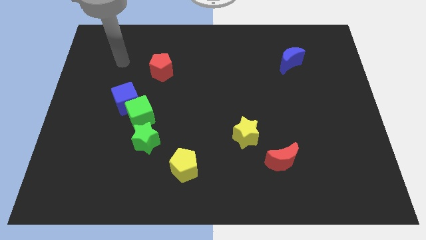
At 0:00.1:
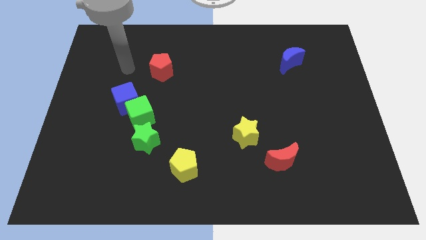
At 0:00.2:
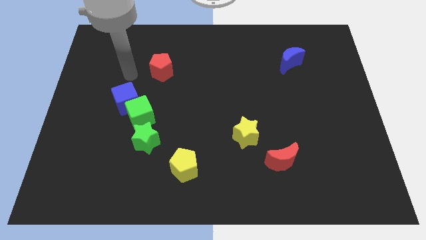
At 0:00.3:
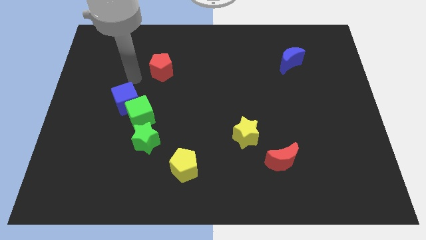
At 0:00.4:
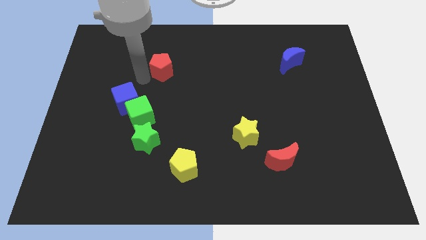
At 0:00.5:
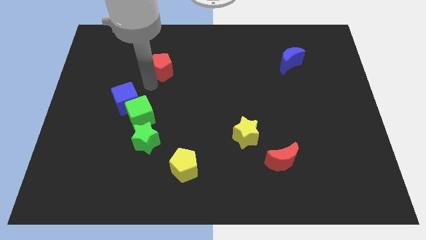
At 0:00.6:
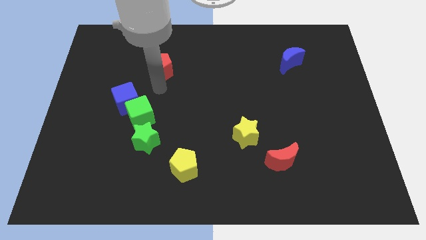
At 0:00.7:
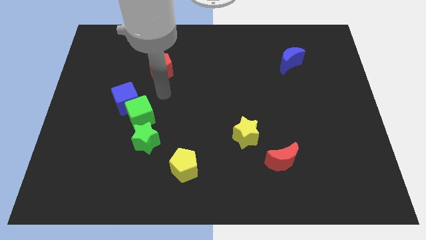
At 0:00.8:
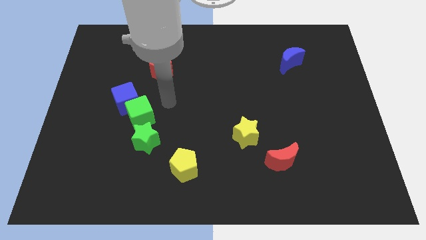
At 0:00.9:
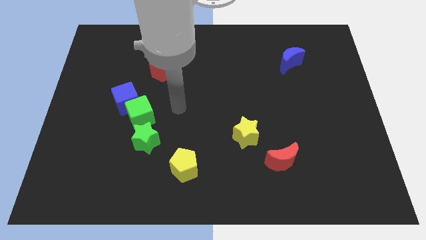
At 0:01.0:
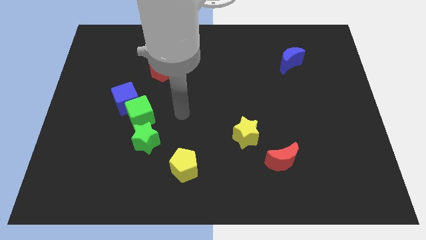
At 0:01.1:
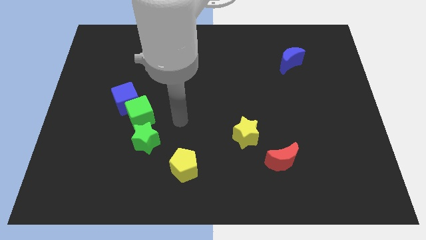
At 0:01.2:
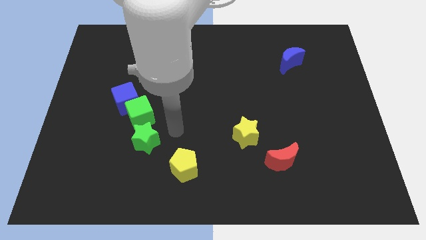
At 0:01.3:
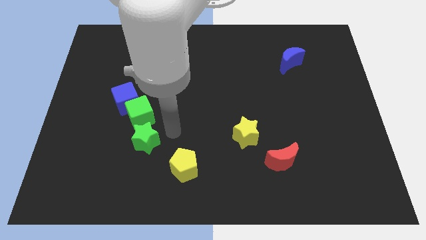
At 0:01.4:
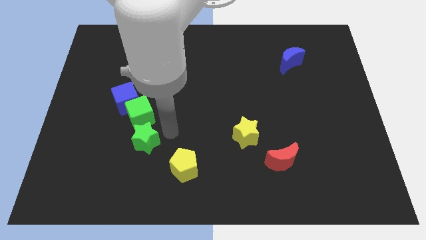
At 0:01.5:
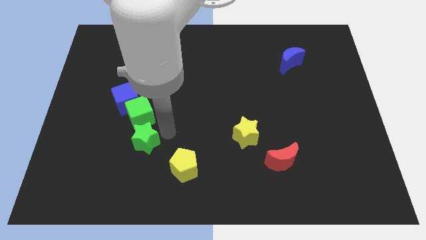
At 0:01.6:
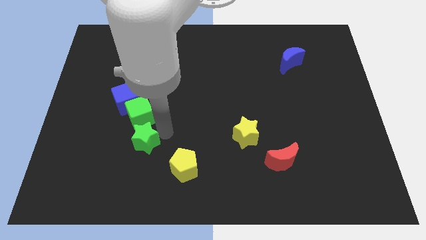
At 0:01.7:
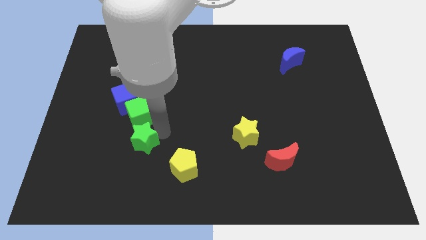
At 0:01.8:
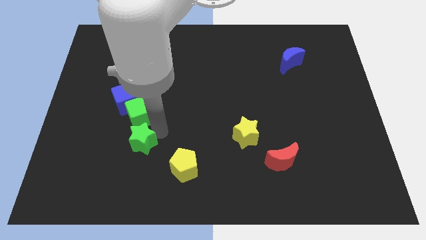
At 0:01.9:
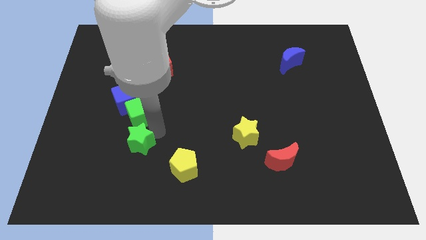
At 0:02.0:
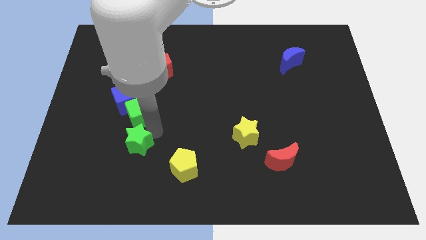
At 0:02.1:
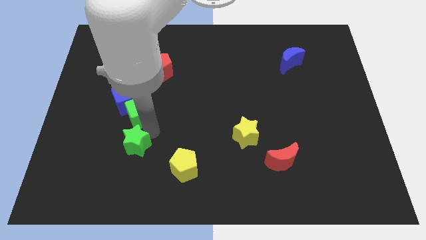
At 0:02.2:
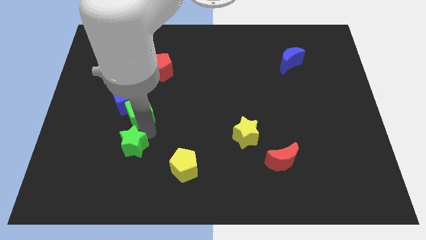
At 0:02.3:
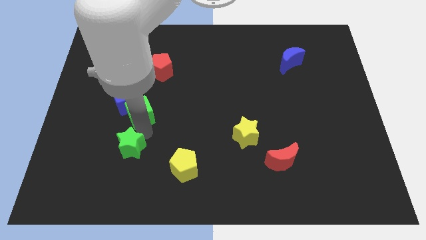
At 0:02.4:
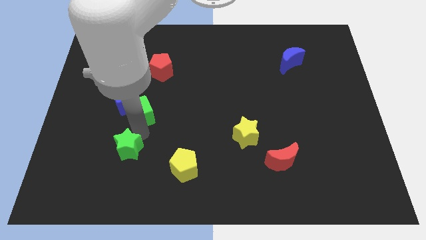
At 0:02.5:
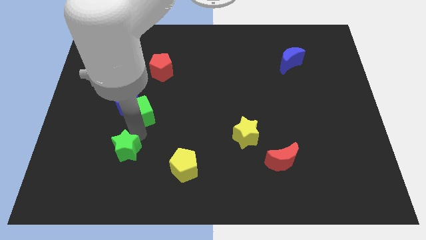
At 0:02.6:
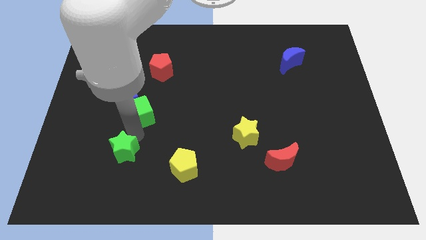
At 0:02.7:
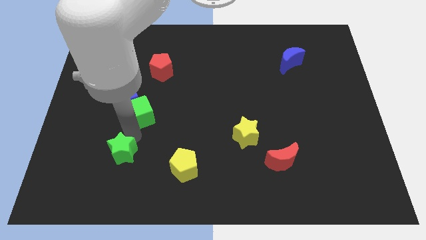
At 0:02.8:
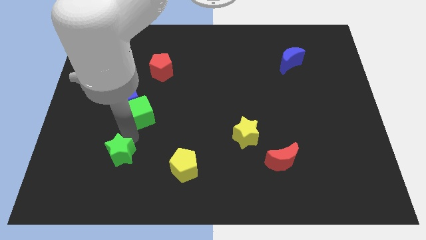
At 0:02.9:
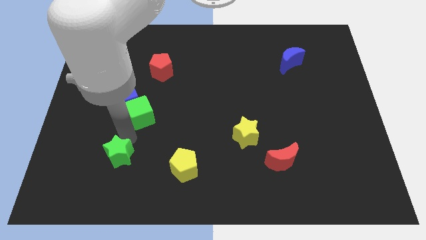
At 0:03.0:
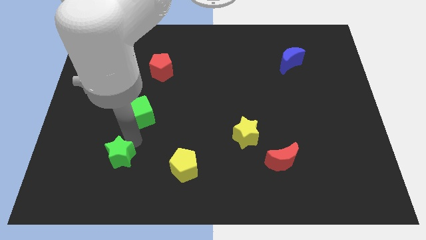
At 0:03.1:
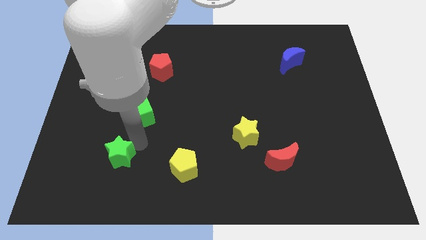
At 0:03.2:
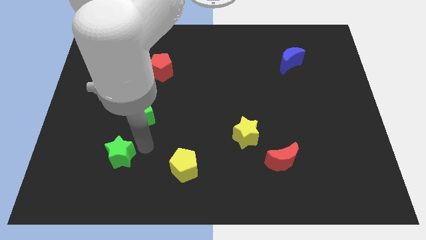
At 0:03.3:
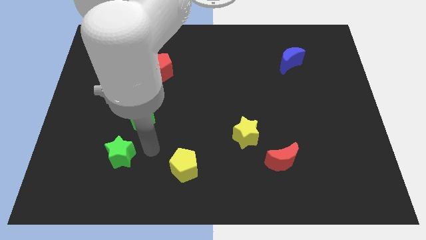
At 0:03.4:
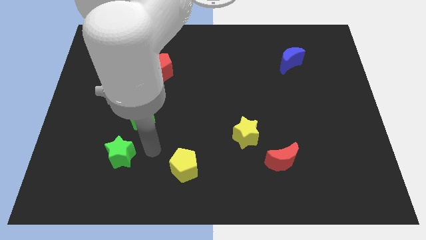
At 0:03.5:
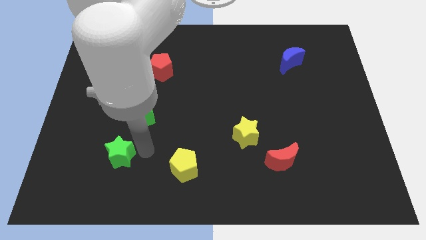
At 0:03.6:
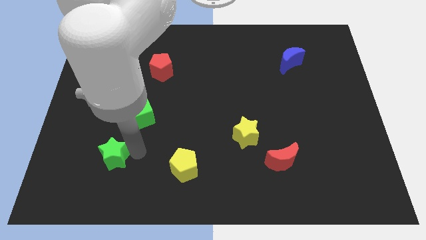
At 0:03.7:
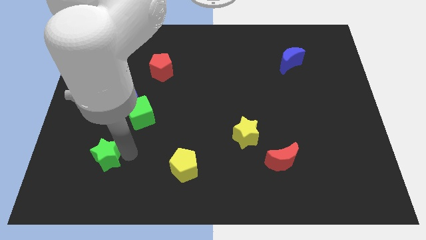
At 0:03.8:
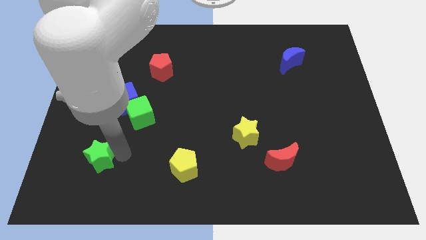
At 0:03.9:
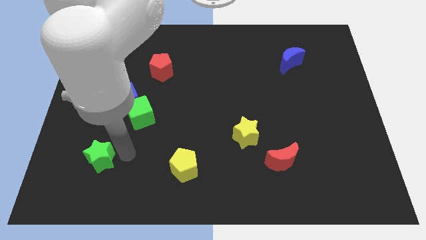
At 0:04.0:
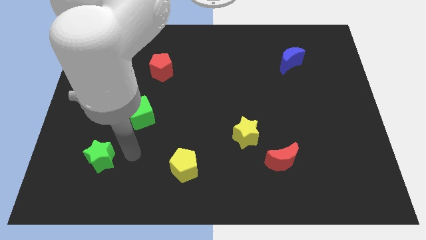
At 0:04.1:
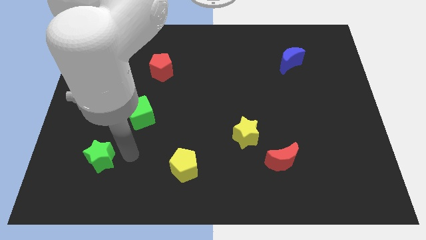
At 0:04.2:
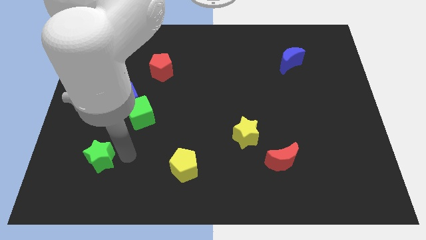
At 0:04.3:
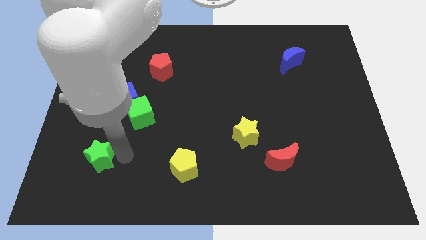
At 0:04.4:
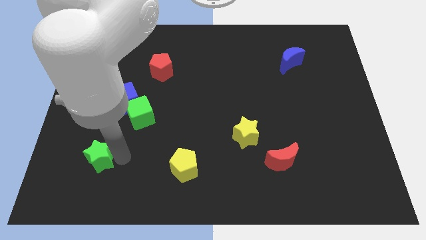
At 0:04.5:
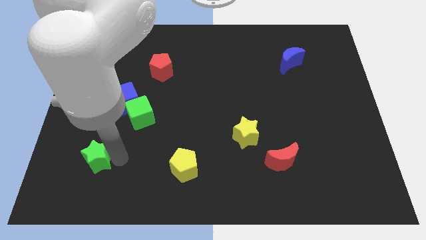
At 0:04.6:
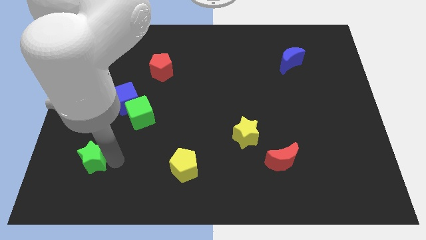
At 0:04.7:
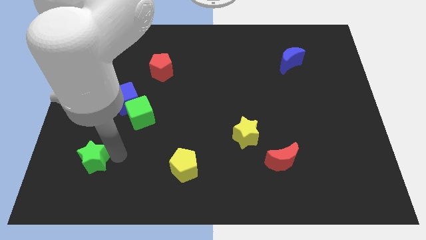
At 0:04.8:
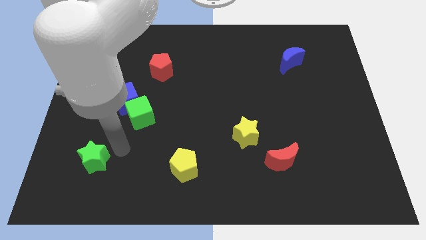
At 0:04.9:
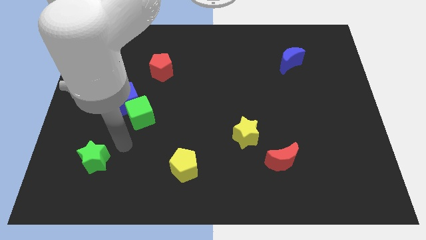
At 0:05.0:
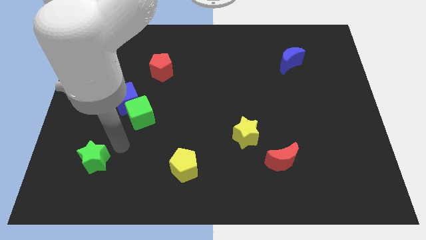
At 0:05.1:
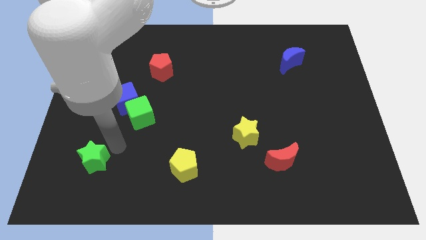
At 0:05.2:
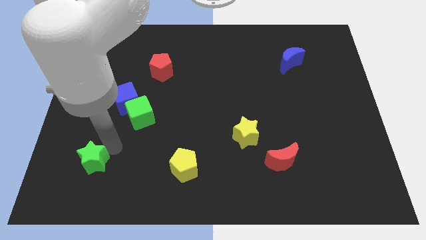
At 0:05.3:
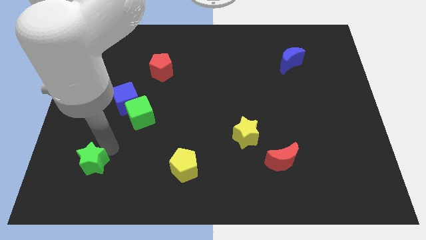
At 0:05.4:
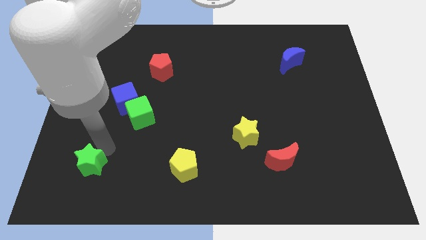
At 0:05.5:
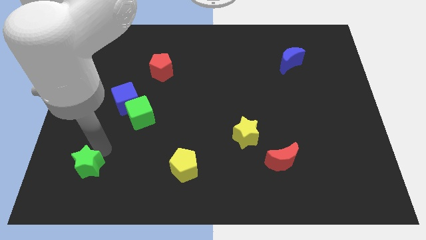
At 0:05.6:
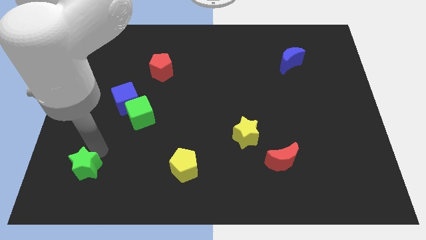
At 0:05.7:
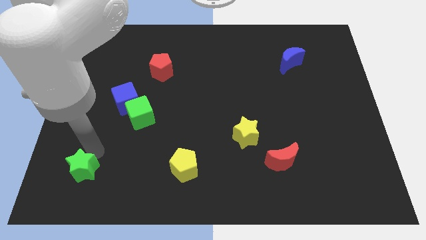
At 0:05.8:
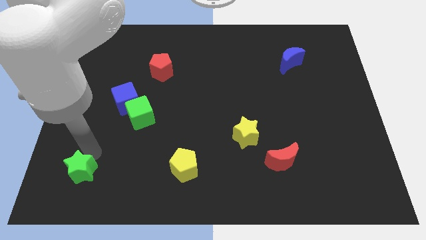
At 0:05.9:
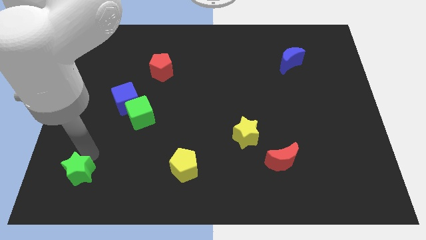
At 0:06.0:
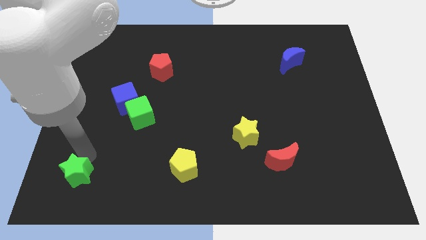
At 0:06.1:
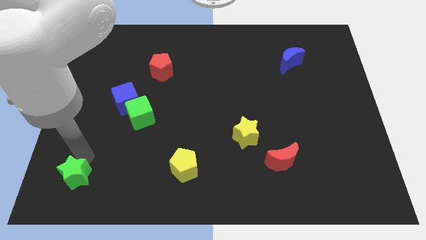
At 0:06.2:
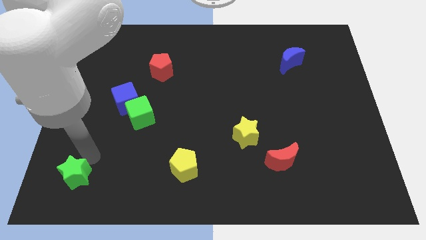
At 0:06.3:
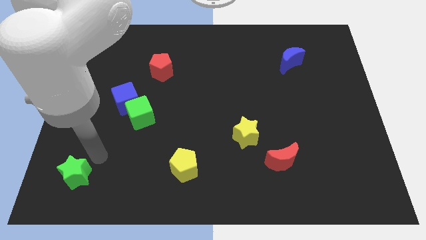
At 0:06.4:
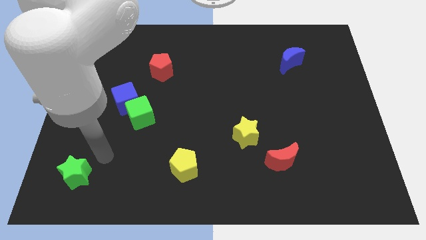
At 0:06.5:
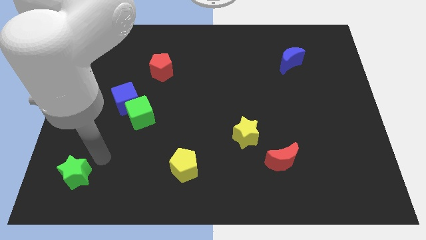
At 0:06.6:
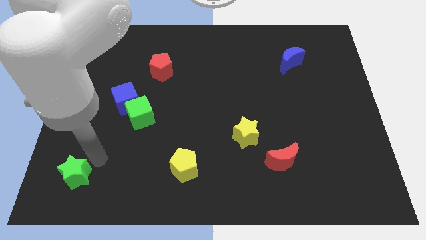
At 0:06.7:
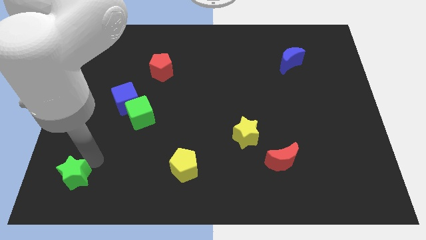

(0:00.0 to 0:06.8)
move the green star to the bottom left
